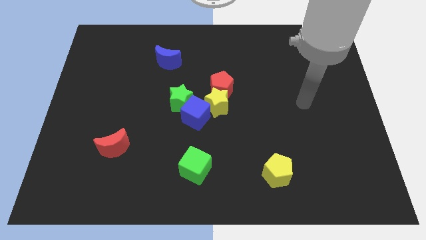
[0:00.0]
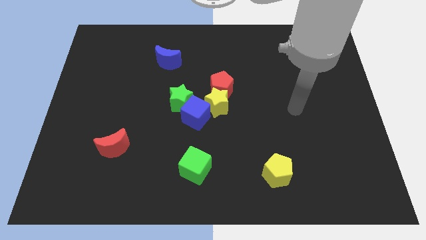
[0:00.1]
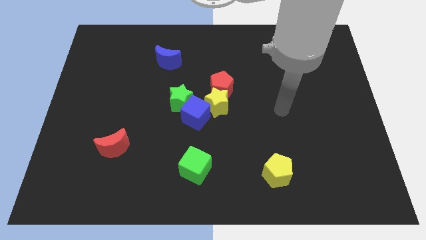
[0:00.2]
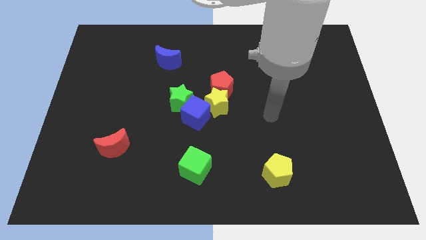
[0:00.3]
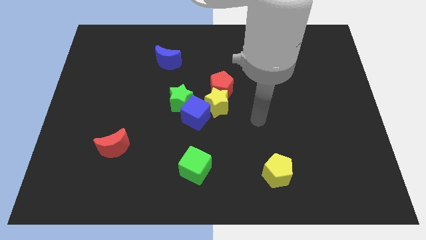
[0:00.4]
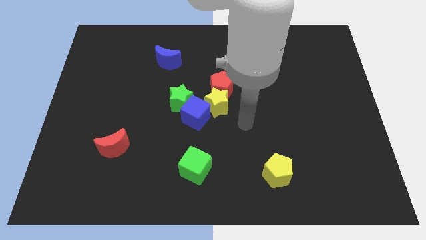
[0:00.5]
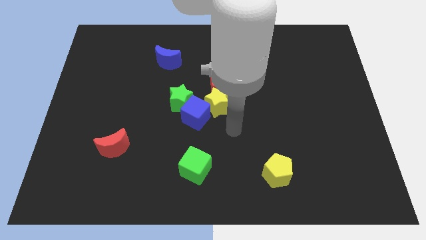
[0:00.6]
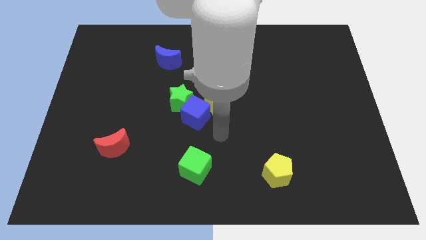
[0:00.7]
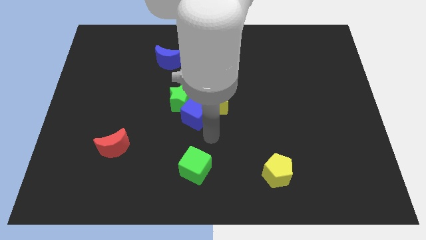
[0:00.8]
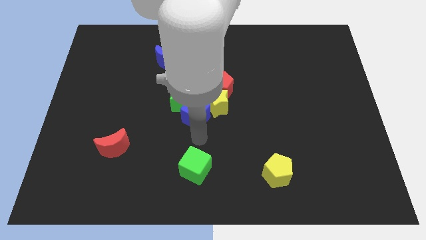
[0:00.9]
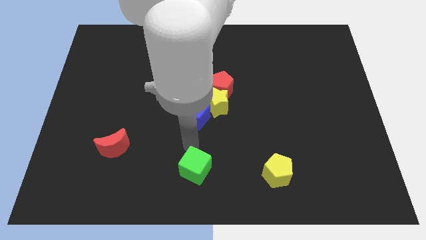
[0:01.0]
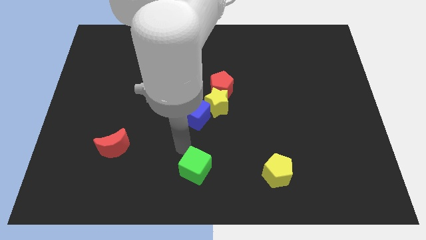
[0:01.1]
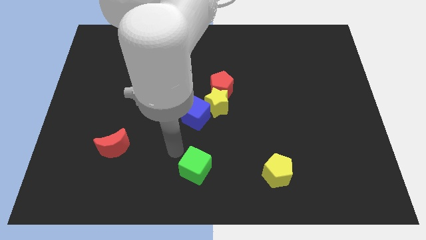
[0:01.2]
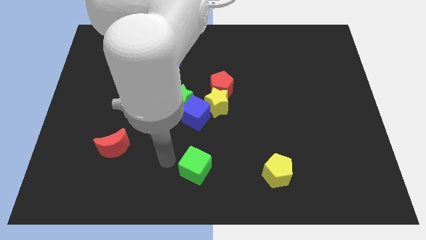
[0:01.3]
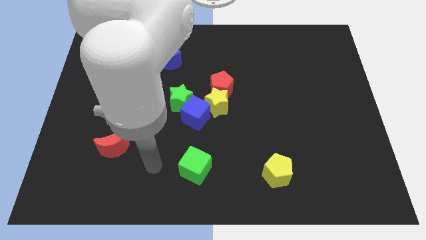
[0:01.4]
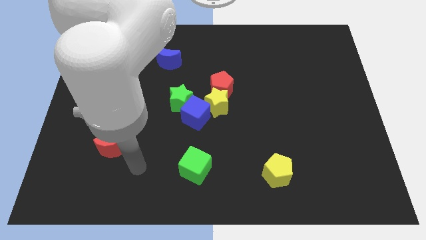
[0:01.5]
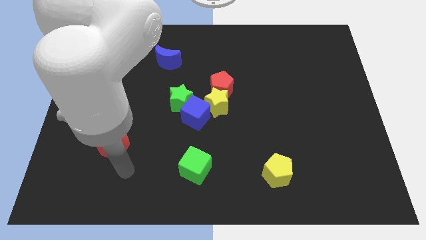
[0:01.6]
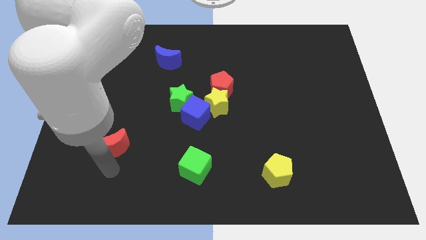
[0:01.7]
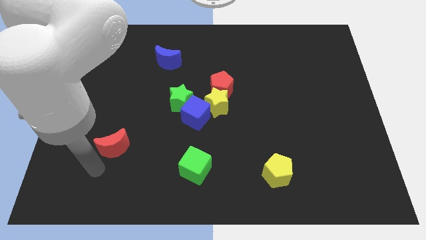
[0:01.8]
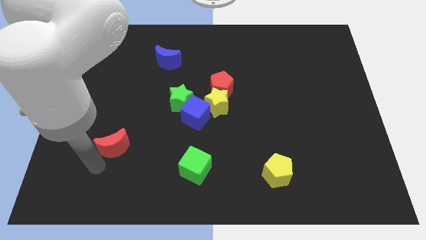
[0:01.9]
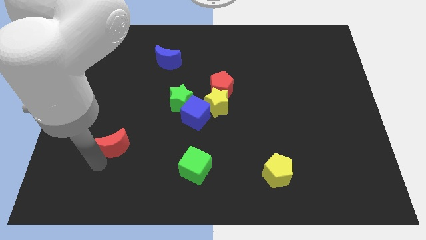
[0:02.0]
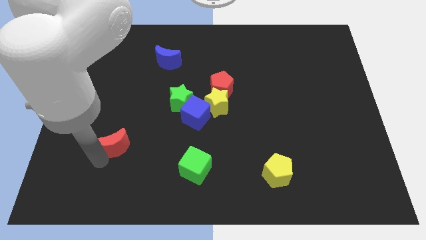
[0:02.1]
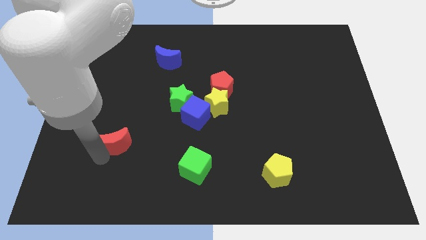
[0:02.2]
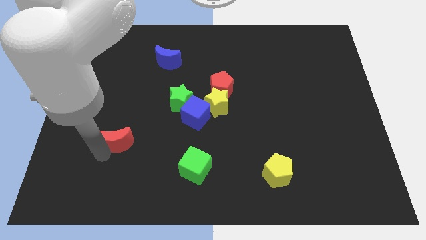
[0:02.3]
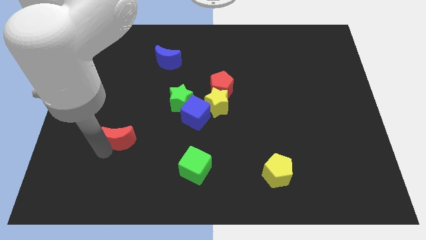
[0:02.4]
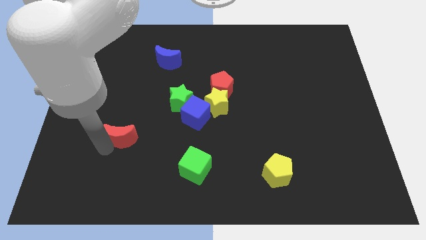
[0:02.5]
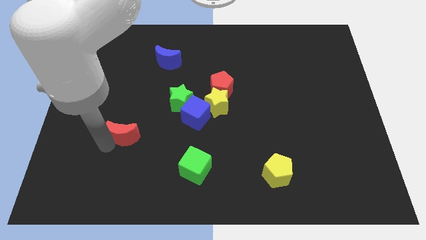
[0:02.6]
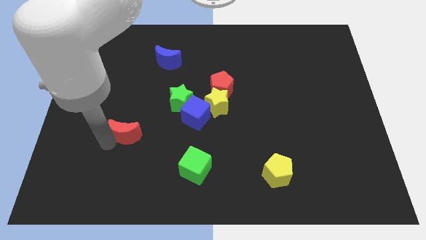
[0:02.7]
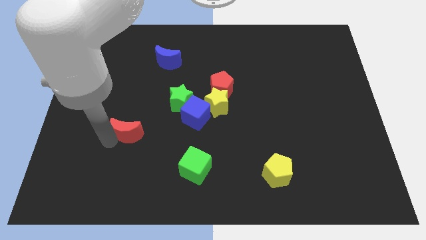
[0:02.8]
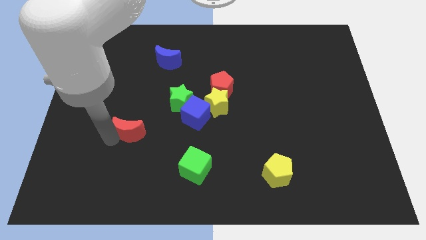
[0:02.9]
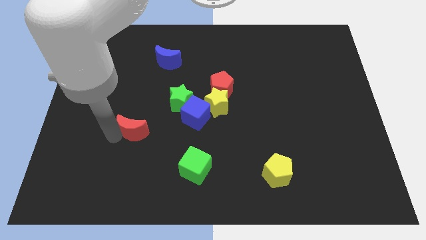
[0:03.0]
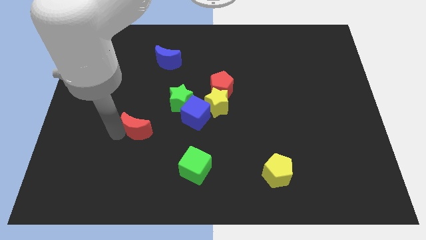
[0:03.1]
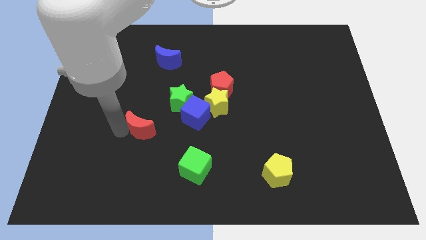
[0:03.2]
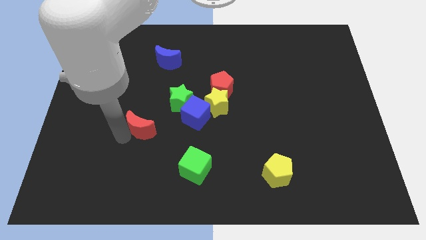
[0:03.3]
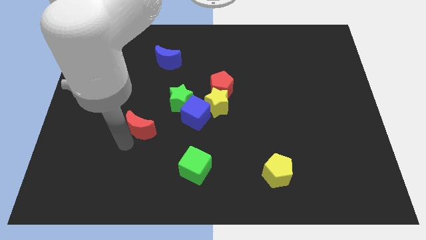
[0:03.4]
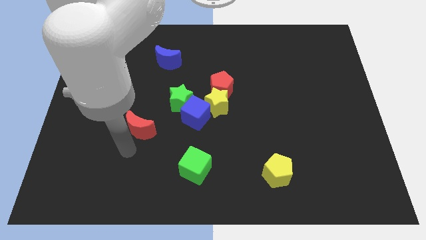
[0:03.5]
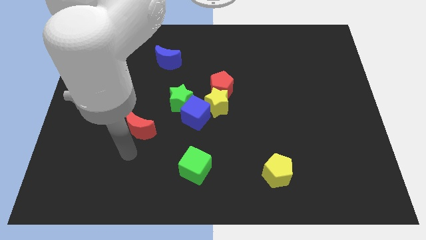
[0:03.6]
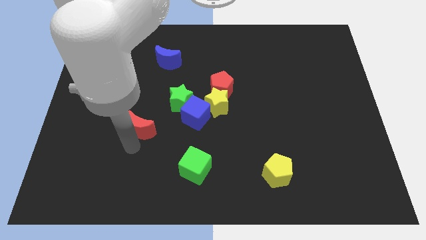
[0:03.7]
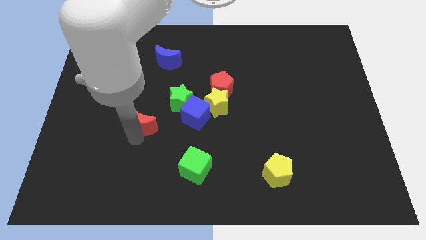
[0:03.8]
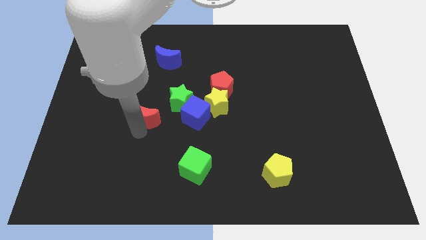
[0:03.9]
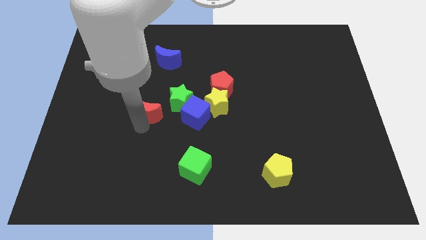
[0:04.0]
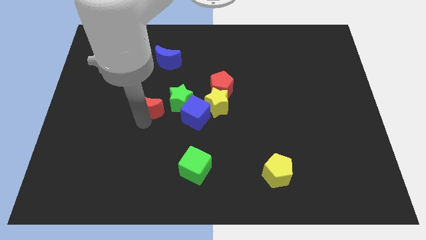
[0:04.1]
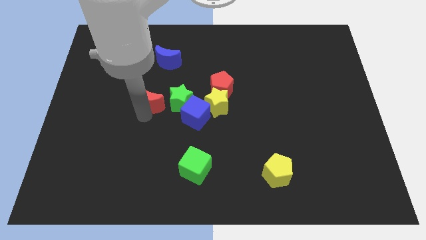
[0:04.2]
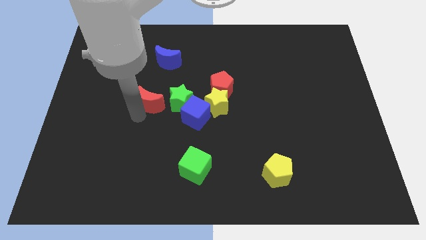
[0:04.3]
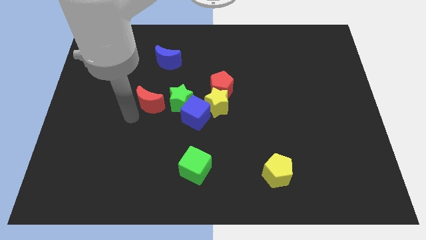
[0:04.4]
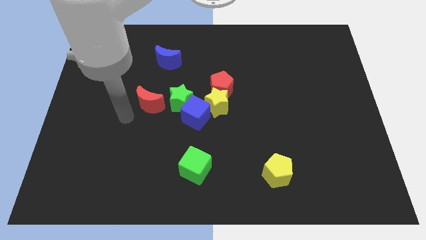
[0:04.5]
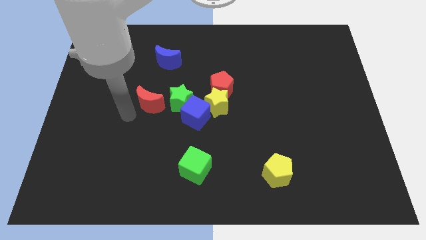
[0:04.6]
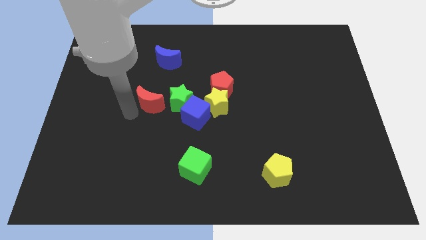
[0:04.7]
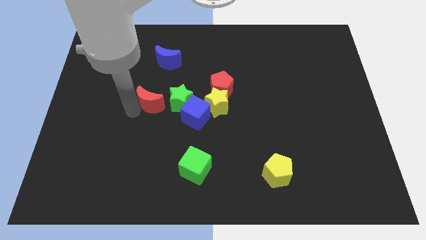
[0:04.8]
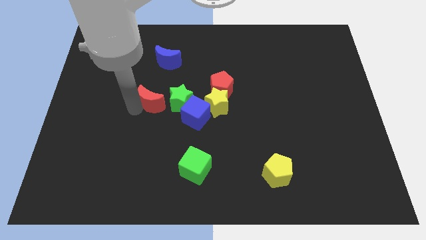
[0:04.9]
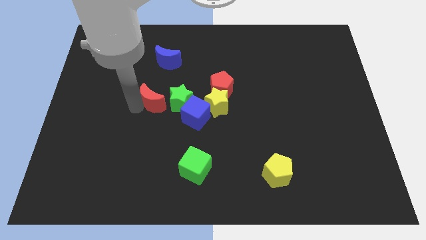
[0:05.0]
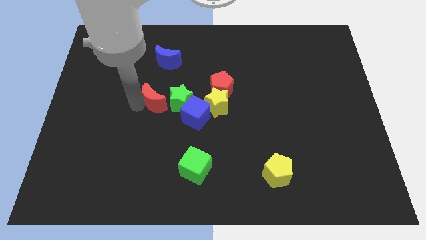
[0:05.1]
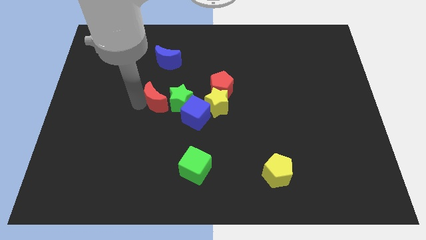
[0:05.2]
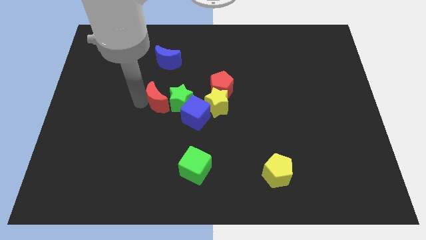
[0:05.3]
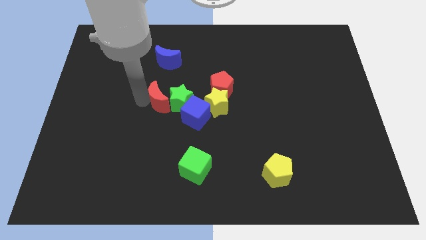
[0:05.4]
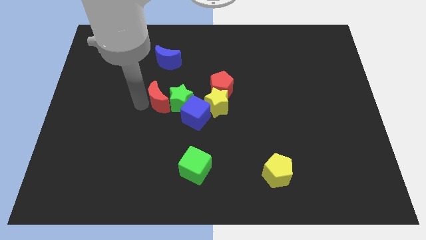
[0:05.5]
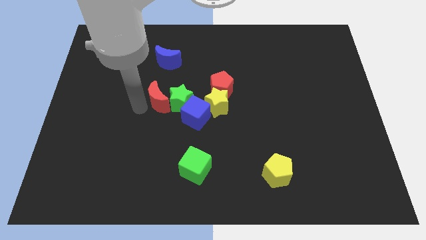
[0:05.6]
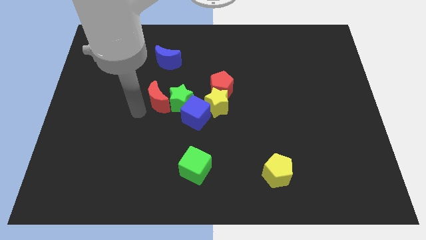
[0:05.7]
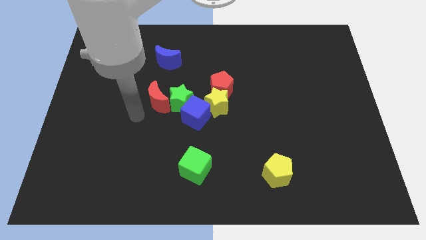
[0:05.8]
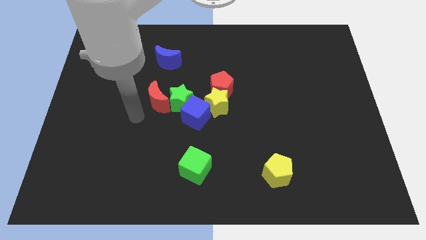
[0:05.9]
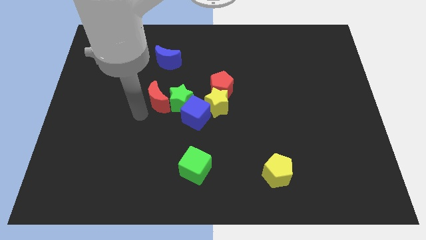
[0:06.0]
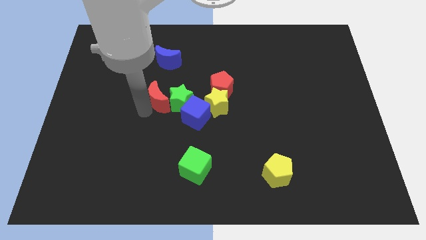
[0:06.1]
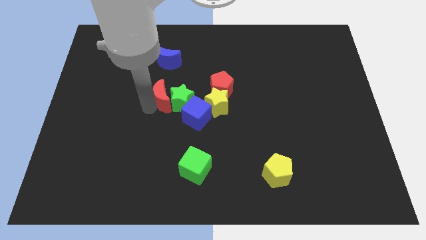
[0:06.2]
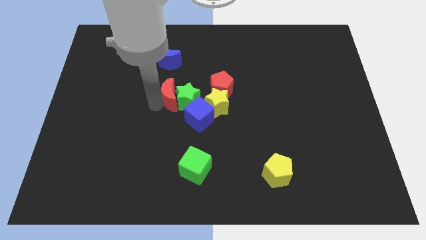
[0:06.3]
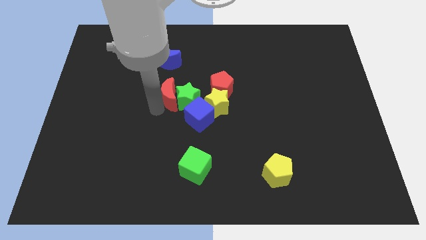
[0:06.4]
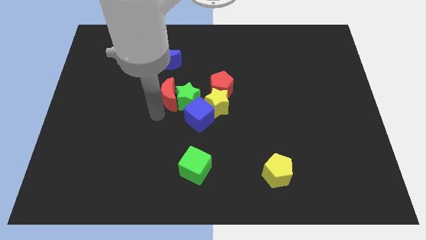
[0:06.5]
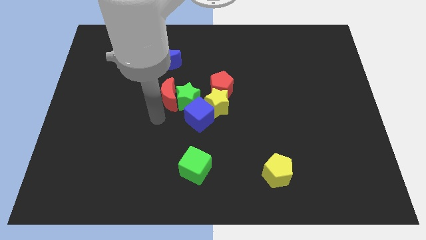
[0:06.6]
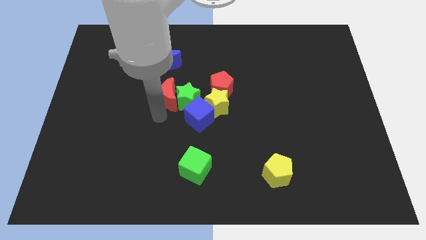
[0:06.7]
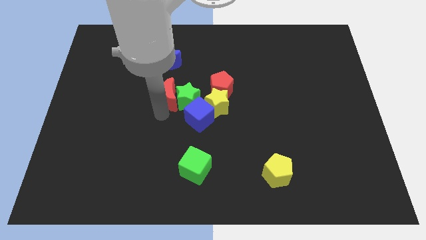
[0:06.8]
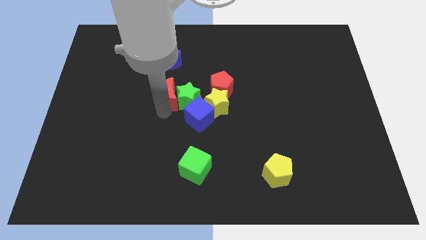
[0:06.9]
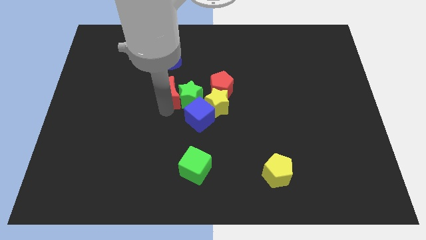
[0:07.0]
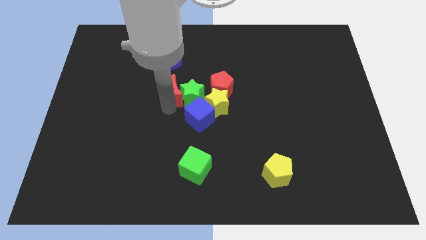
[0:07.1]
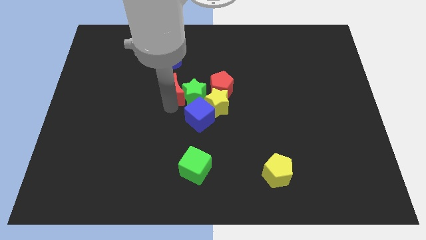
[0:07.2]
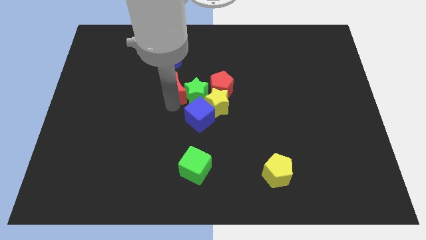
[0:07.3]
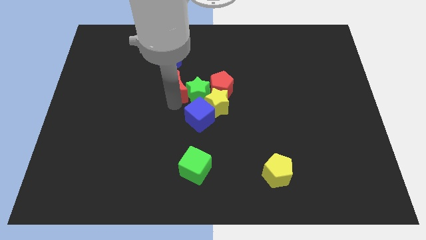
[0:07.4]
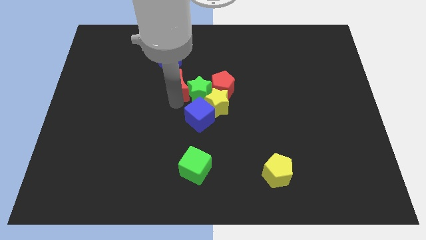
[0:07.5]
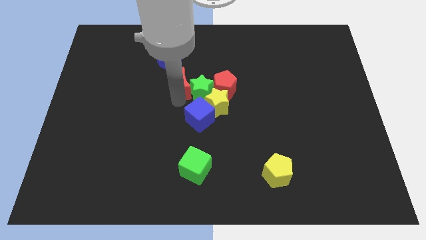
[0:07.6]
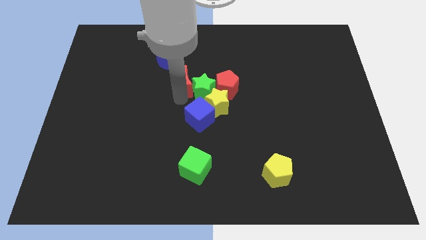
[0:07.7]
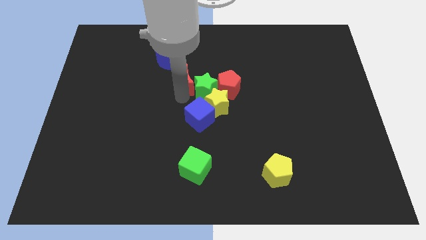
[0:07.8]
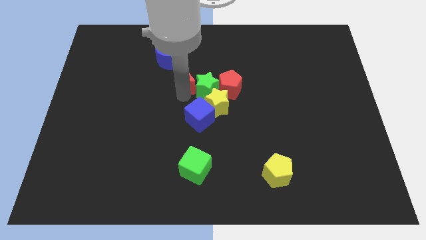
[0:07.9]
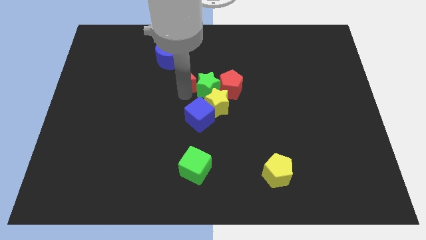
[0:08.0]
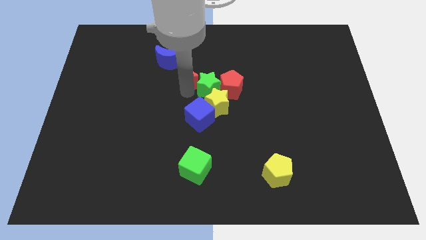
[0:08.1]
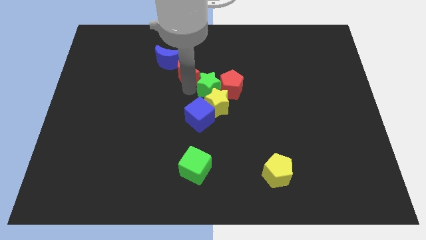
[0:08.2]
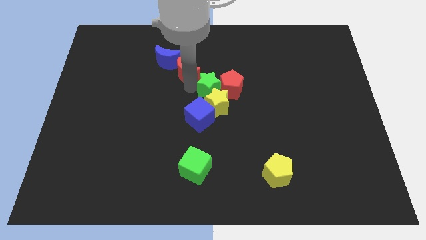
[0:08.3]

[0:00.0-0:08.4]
put the red moon to the right of the blue moon

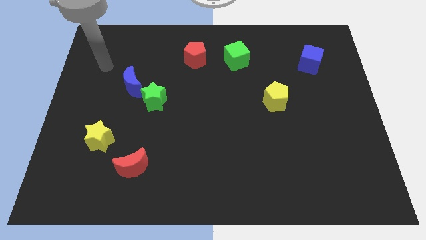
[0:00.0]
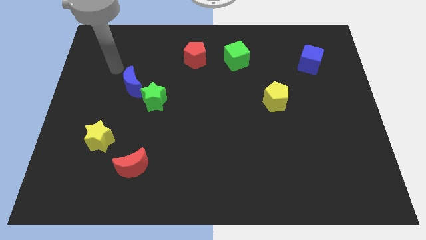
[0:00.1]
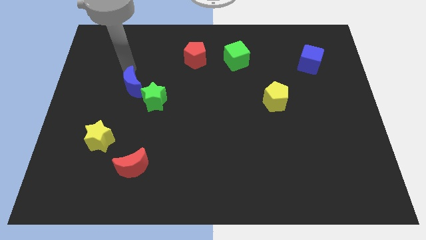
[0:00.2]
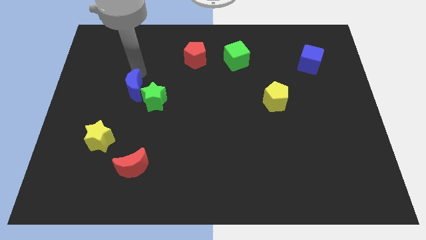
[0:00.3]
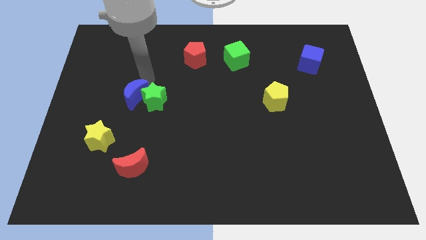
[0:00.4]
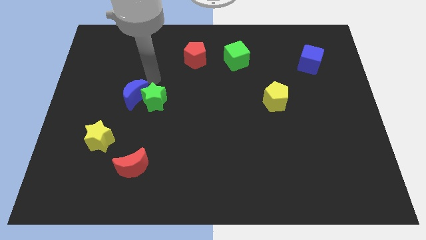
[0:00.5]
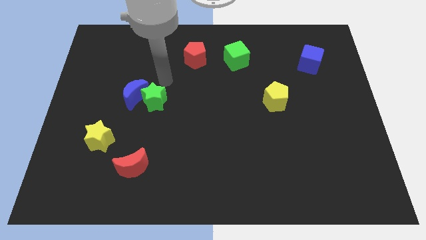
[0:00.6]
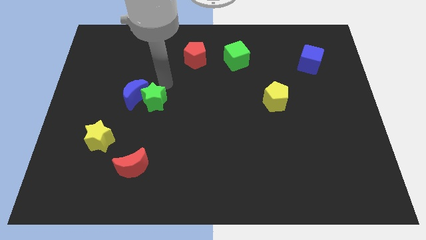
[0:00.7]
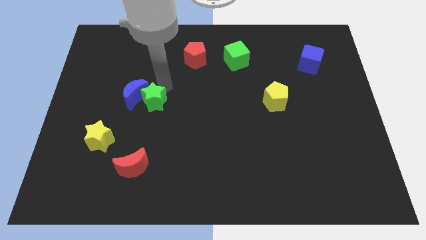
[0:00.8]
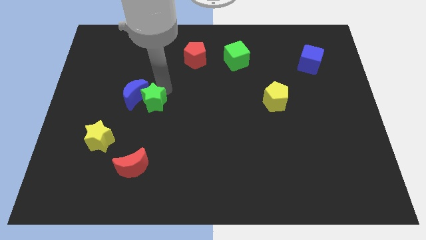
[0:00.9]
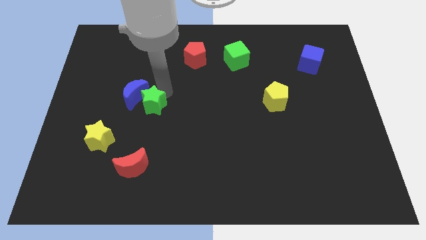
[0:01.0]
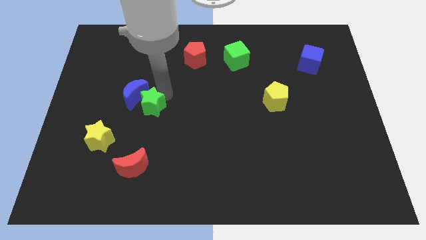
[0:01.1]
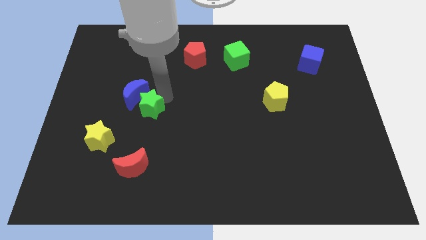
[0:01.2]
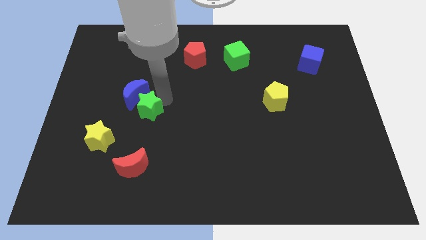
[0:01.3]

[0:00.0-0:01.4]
move the green star above the red moon
